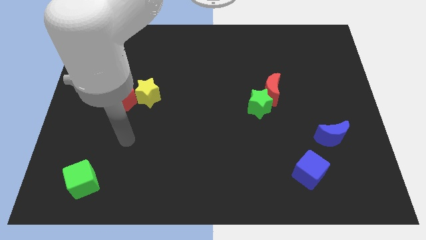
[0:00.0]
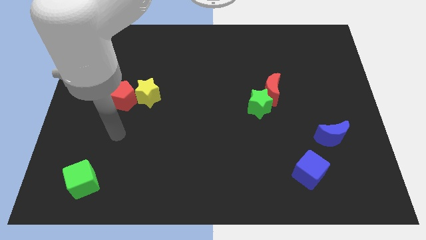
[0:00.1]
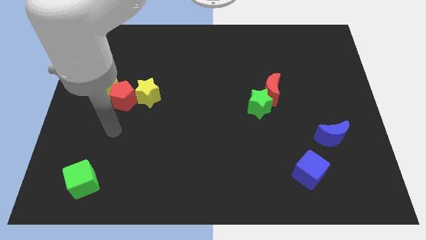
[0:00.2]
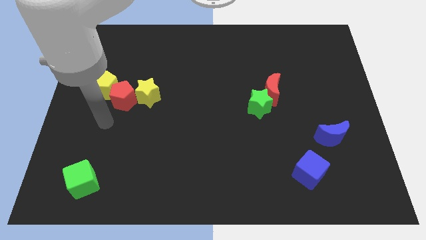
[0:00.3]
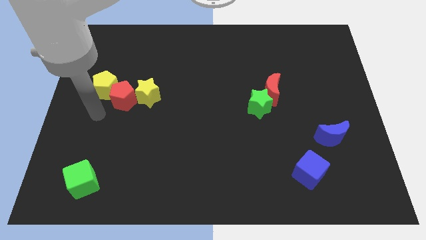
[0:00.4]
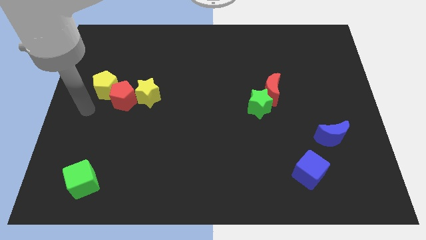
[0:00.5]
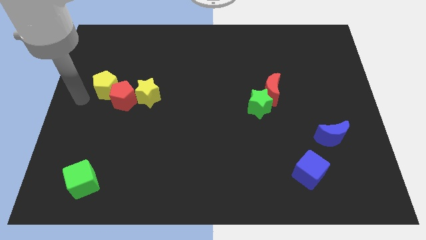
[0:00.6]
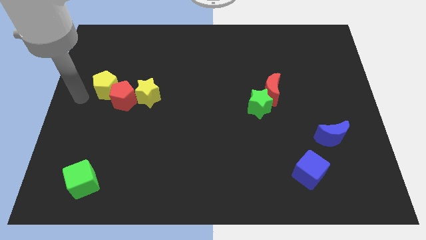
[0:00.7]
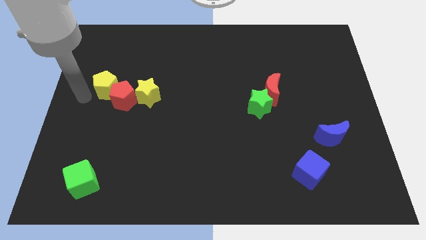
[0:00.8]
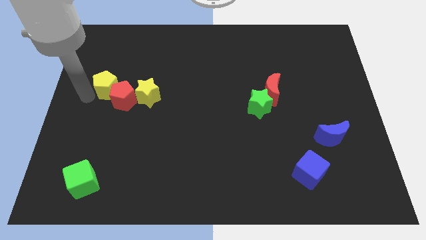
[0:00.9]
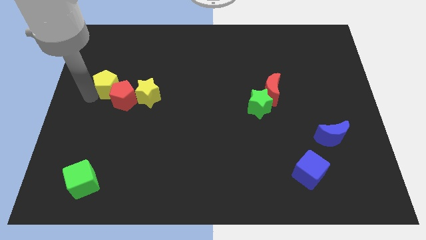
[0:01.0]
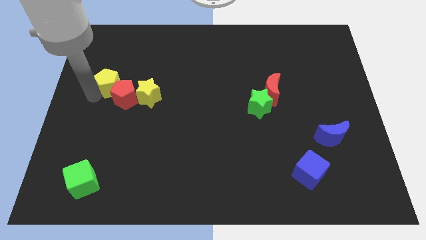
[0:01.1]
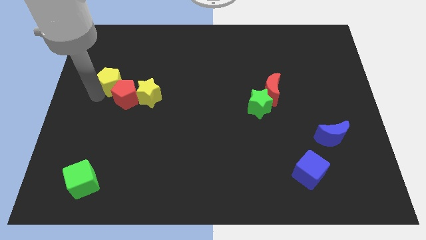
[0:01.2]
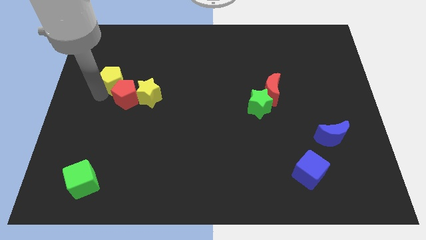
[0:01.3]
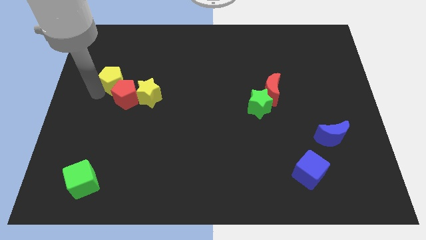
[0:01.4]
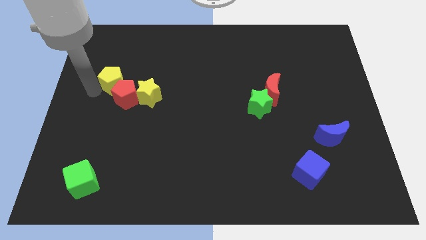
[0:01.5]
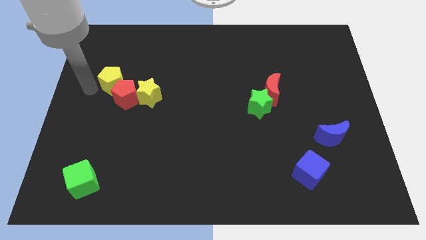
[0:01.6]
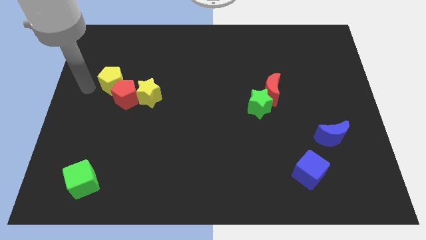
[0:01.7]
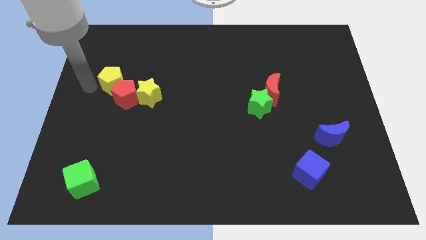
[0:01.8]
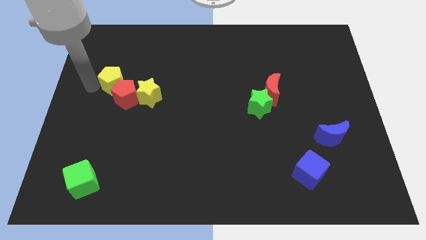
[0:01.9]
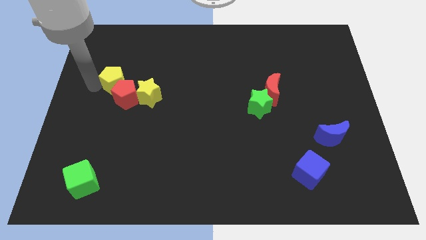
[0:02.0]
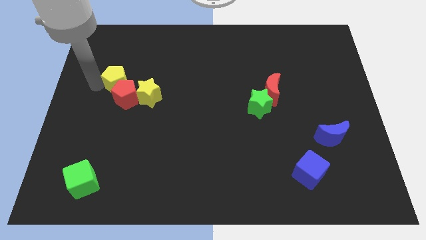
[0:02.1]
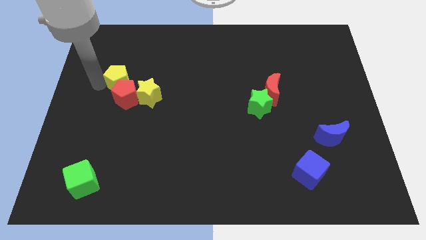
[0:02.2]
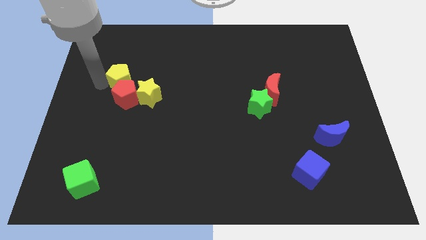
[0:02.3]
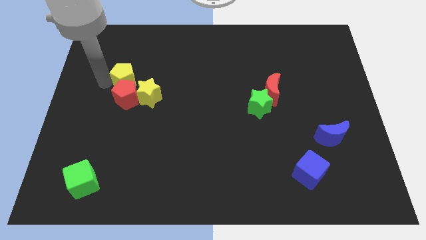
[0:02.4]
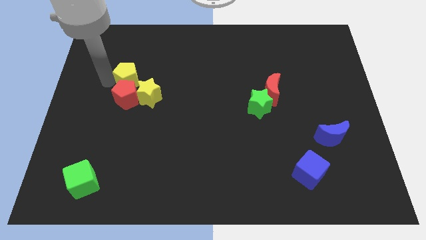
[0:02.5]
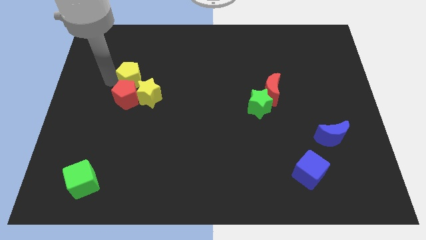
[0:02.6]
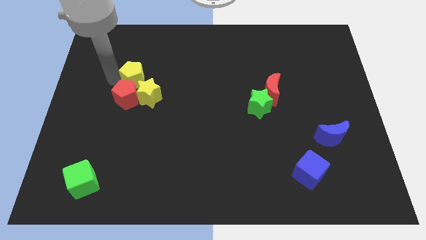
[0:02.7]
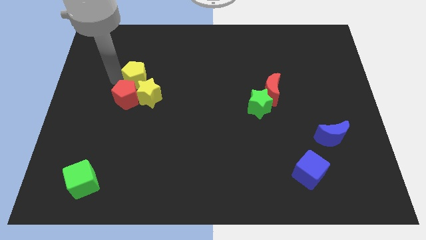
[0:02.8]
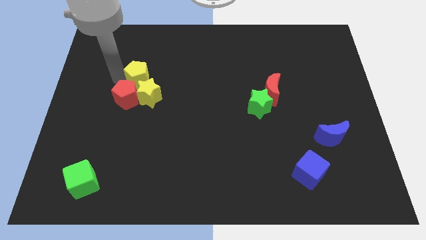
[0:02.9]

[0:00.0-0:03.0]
slightly push the yellow pentagon to the right

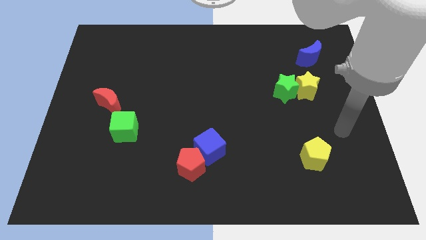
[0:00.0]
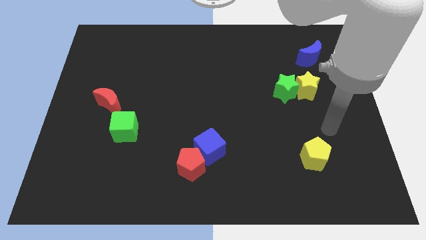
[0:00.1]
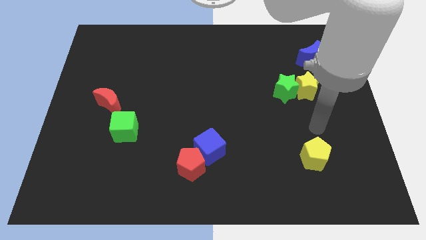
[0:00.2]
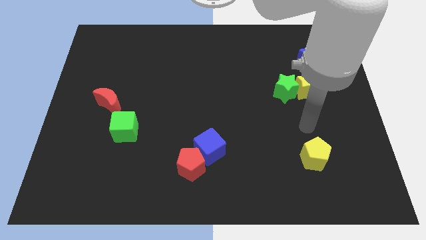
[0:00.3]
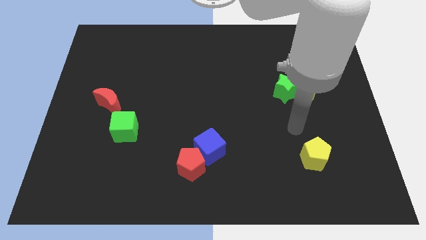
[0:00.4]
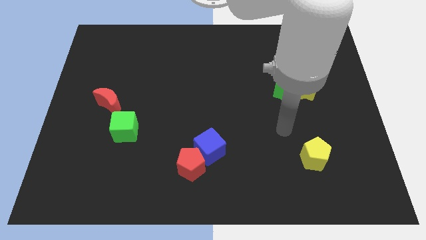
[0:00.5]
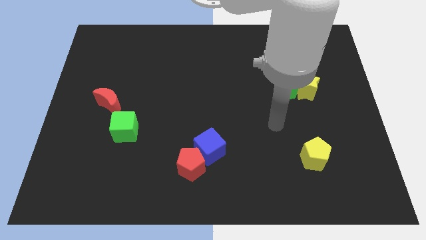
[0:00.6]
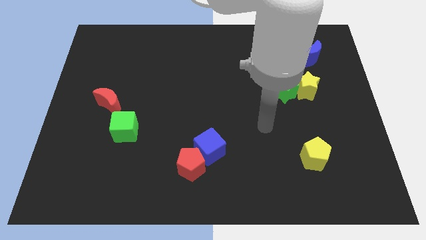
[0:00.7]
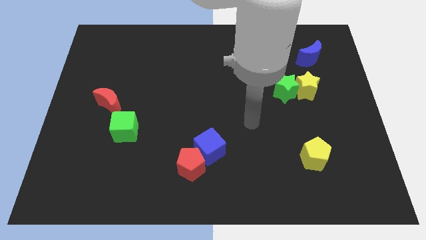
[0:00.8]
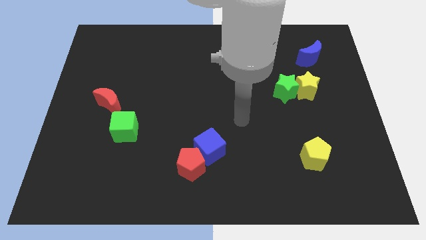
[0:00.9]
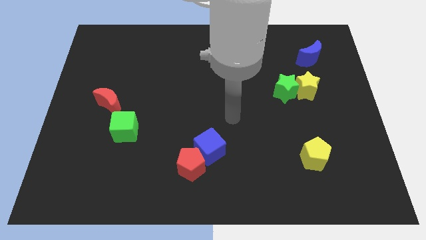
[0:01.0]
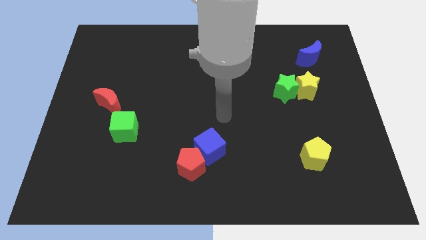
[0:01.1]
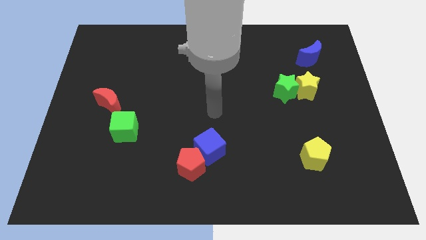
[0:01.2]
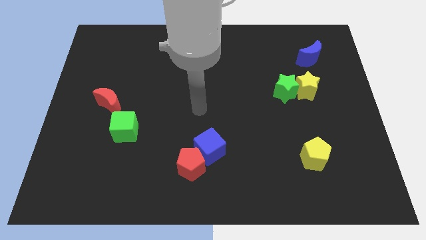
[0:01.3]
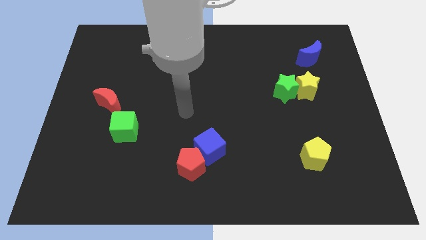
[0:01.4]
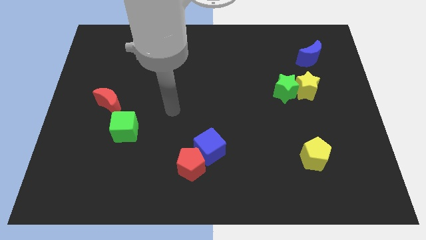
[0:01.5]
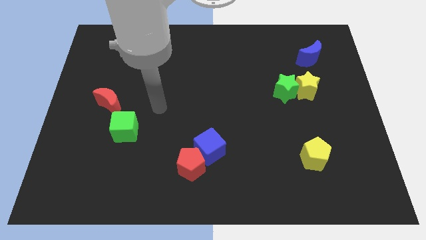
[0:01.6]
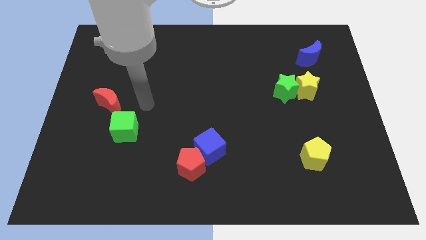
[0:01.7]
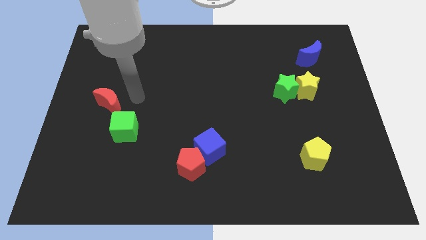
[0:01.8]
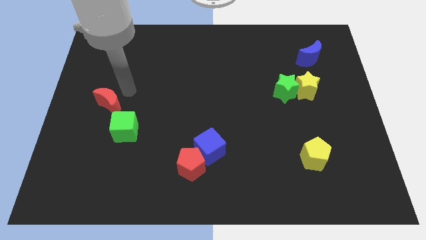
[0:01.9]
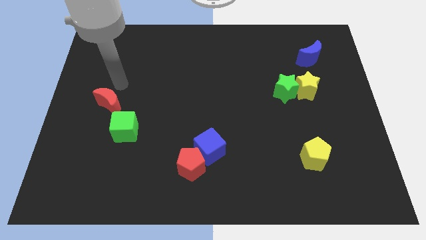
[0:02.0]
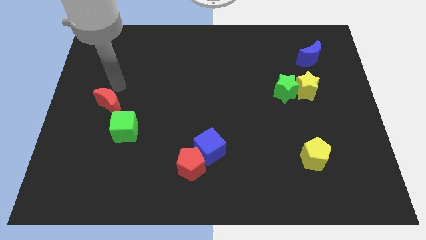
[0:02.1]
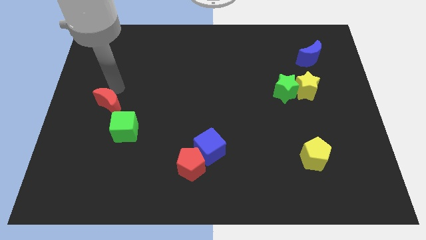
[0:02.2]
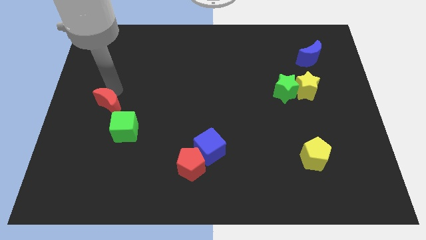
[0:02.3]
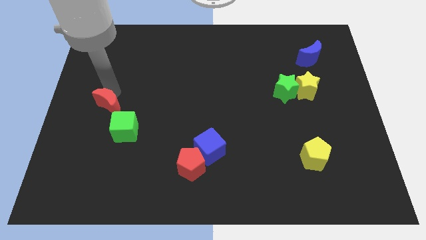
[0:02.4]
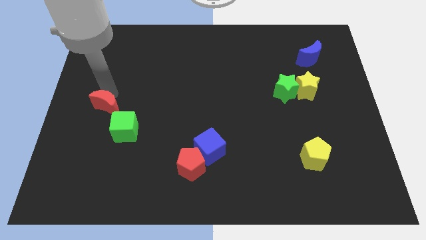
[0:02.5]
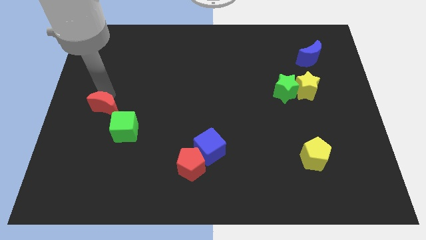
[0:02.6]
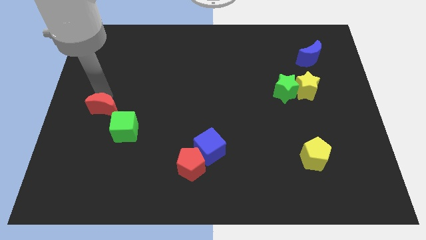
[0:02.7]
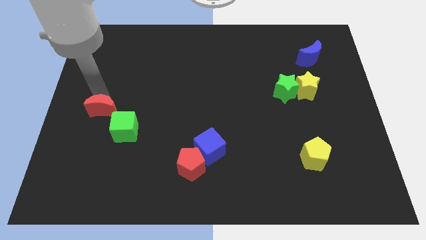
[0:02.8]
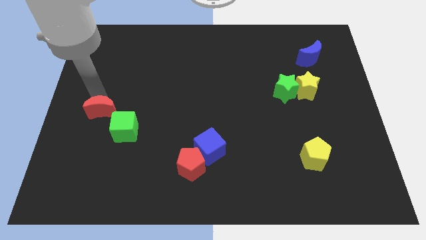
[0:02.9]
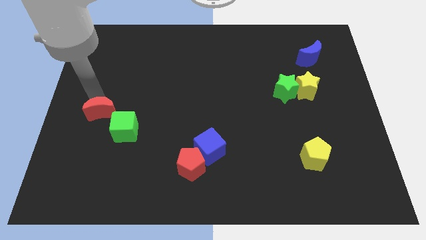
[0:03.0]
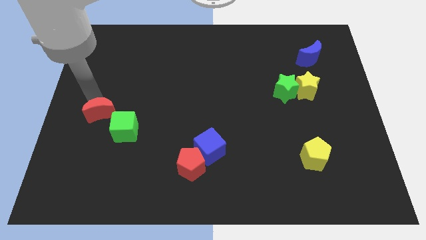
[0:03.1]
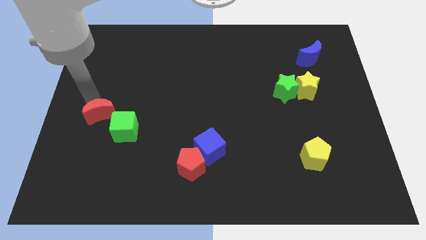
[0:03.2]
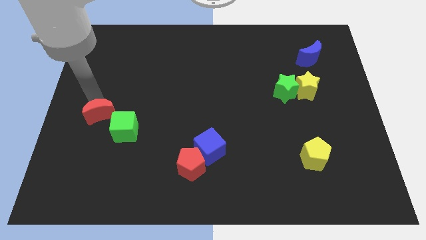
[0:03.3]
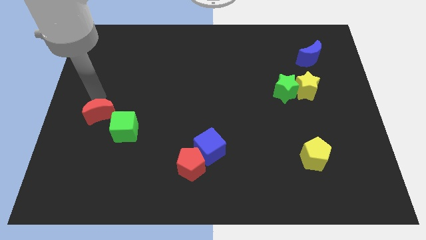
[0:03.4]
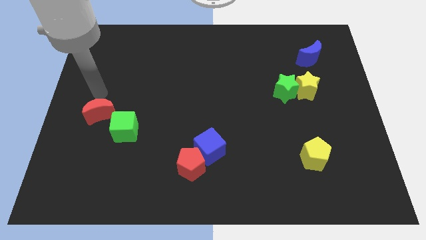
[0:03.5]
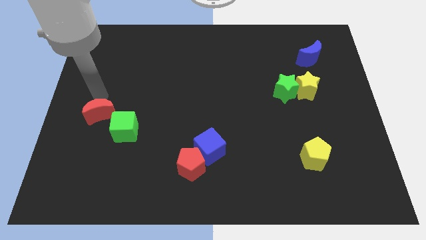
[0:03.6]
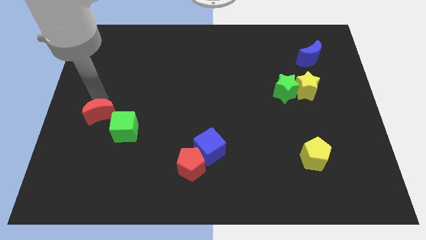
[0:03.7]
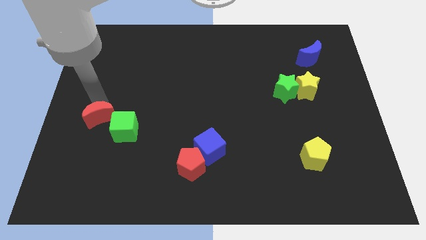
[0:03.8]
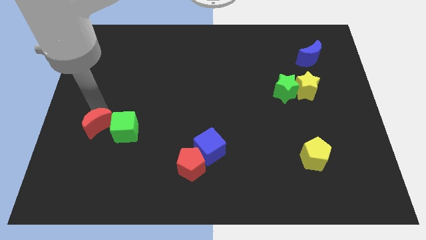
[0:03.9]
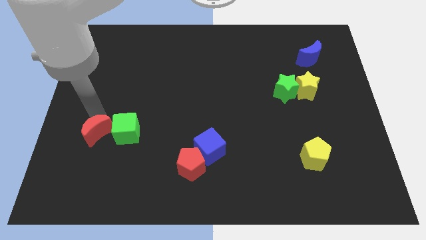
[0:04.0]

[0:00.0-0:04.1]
slightly slide the red moon down

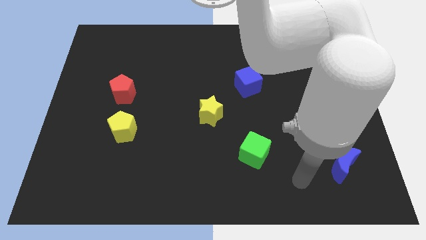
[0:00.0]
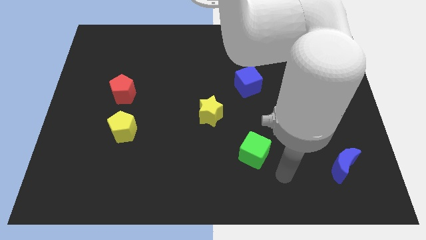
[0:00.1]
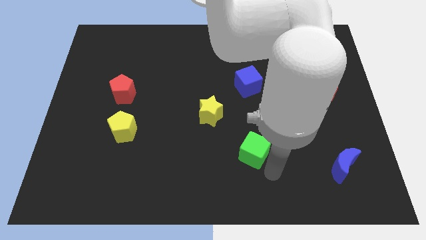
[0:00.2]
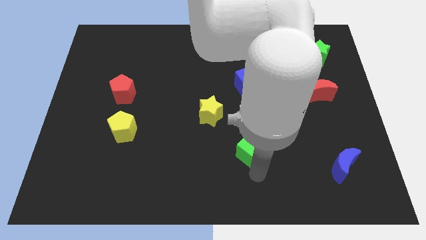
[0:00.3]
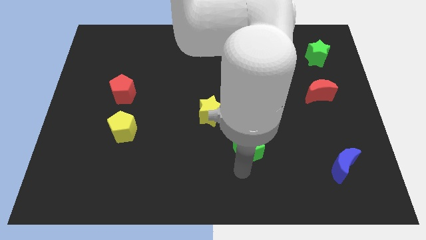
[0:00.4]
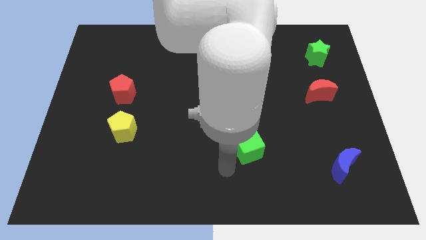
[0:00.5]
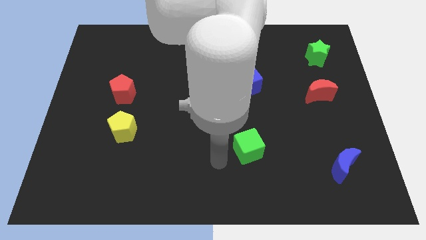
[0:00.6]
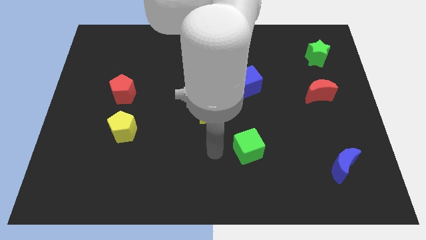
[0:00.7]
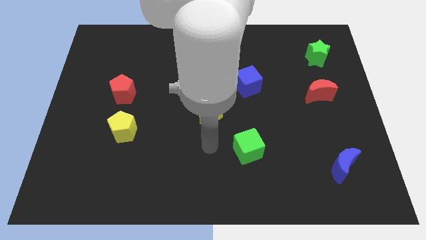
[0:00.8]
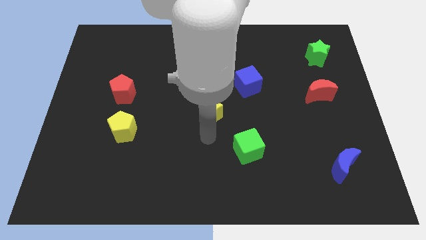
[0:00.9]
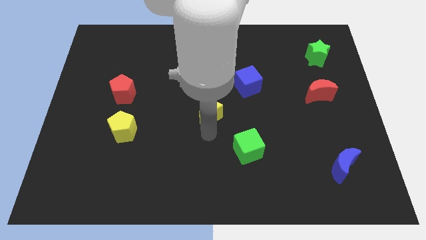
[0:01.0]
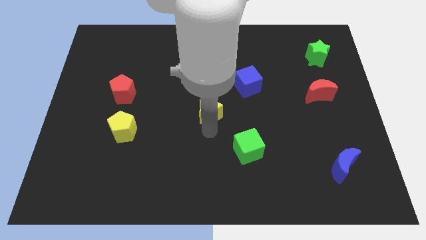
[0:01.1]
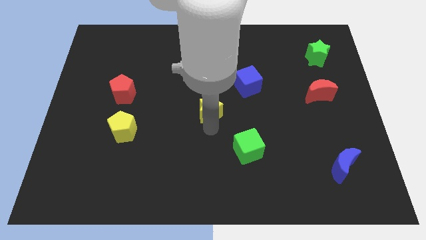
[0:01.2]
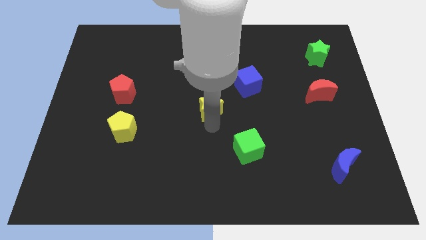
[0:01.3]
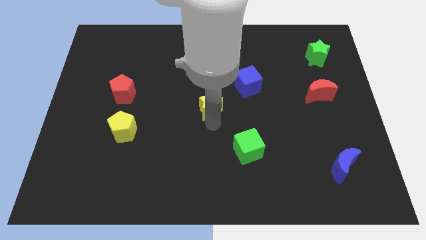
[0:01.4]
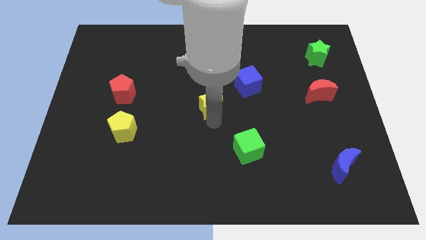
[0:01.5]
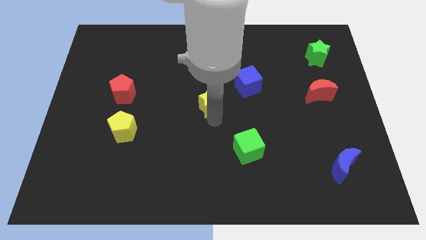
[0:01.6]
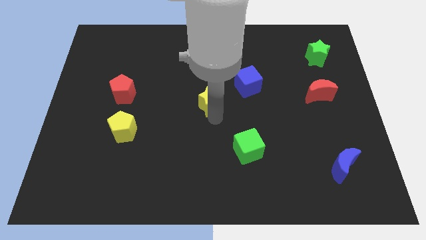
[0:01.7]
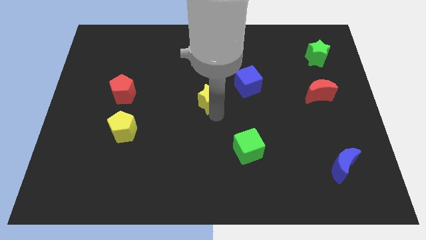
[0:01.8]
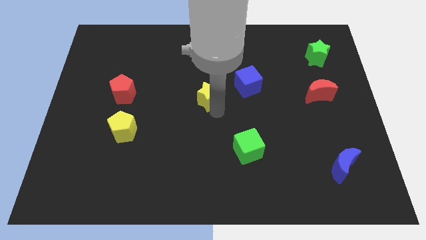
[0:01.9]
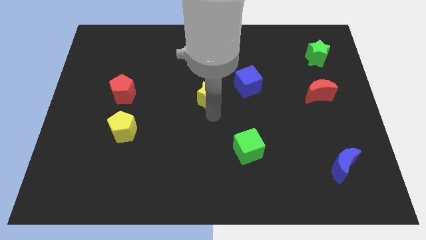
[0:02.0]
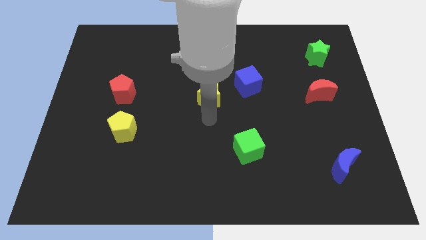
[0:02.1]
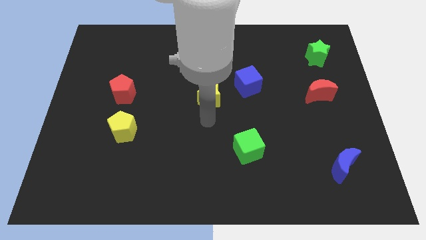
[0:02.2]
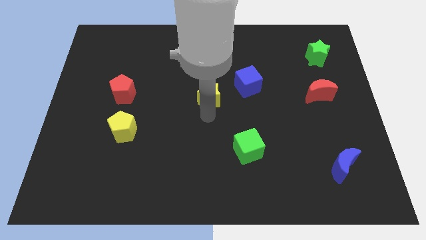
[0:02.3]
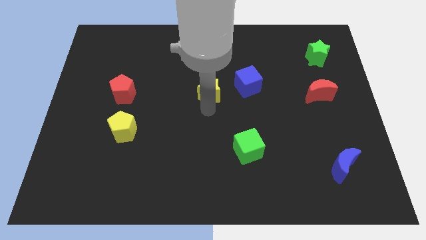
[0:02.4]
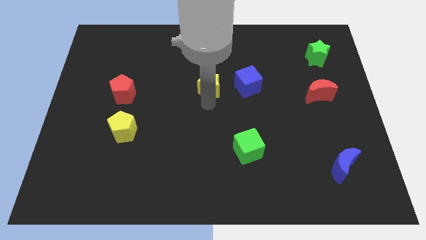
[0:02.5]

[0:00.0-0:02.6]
slightly slide the yellow star up
